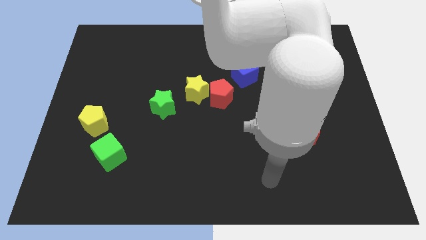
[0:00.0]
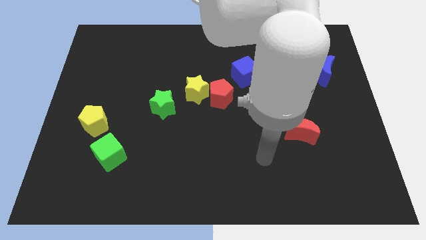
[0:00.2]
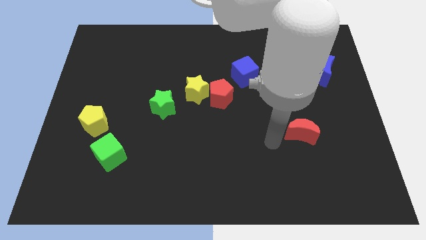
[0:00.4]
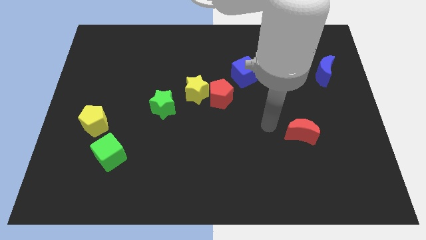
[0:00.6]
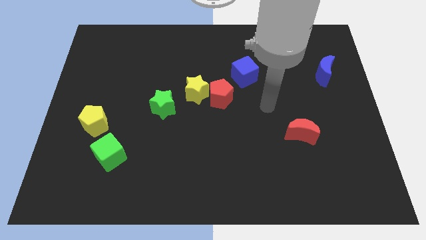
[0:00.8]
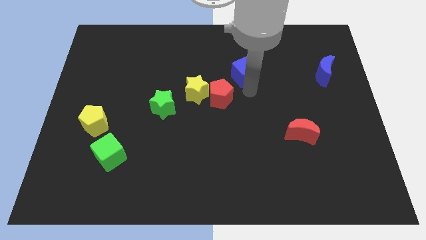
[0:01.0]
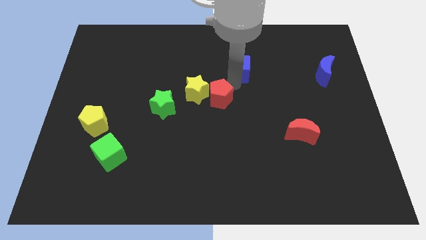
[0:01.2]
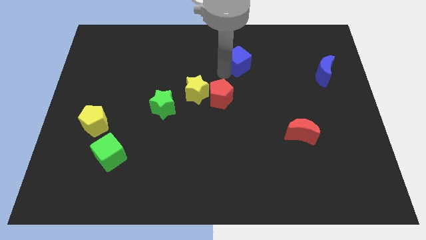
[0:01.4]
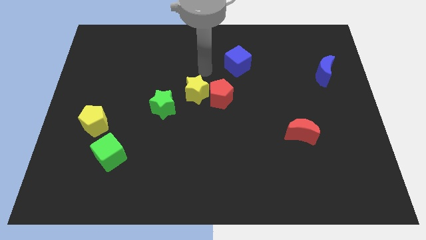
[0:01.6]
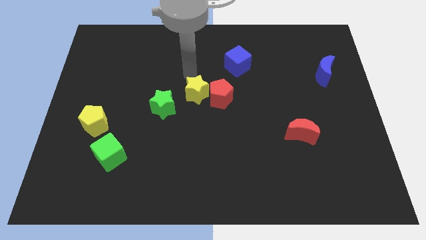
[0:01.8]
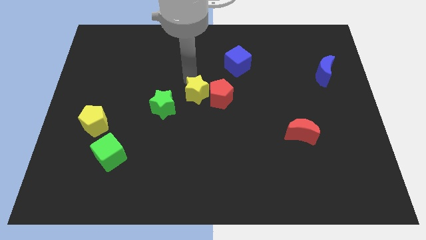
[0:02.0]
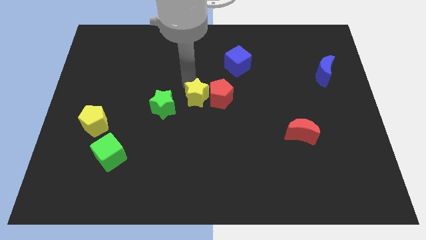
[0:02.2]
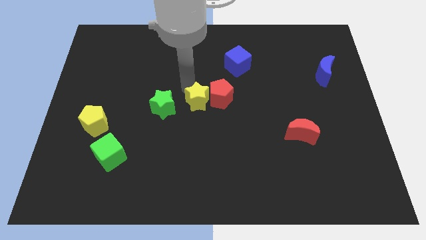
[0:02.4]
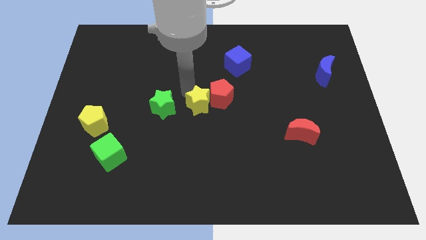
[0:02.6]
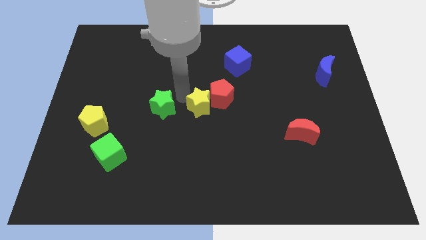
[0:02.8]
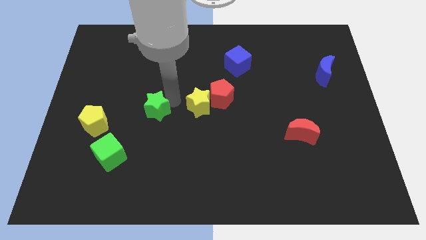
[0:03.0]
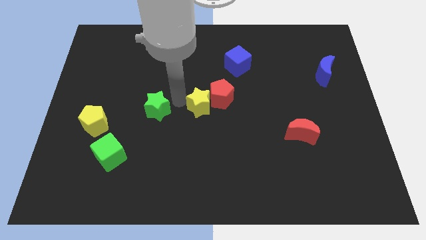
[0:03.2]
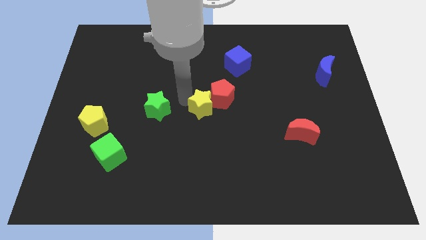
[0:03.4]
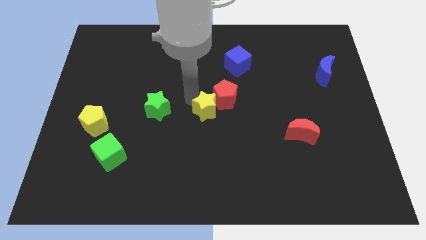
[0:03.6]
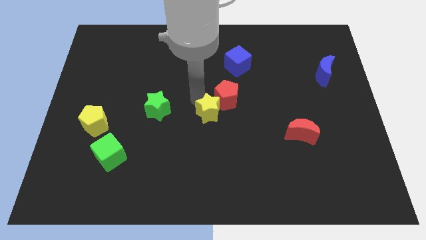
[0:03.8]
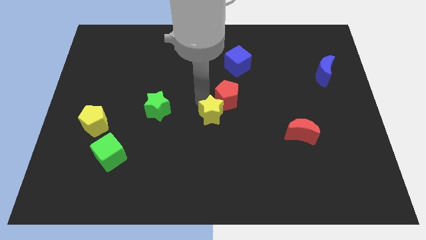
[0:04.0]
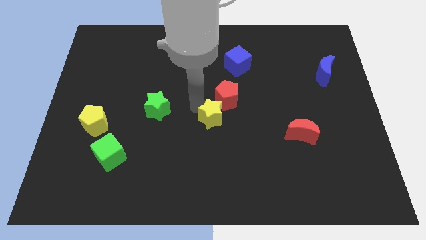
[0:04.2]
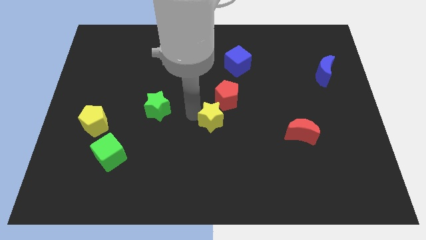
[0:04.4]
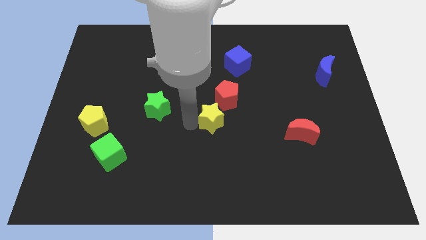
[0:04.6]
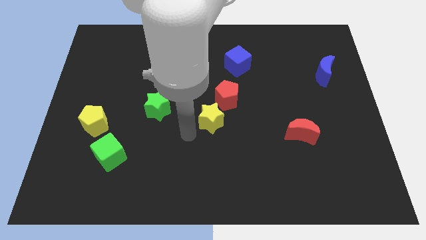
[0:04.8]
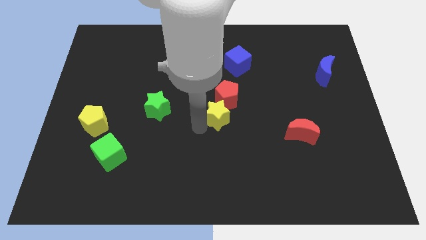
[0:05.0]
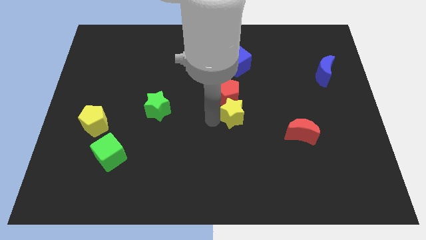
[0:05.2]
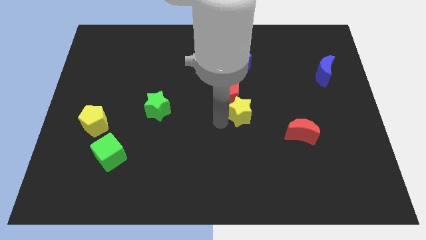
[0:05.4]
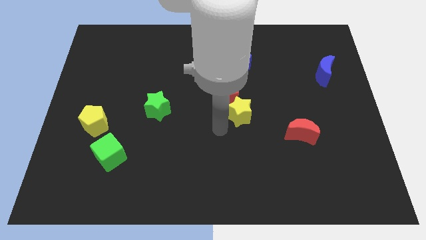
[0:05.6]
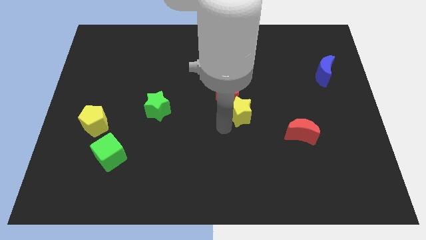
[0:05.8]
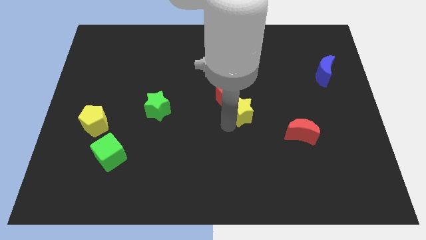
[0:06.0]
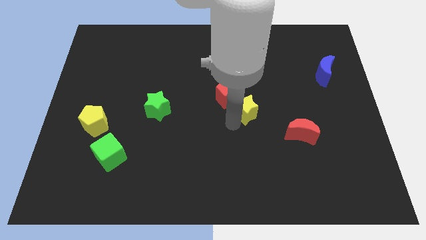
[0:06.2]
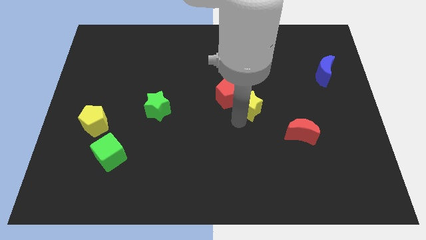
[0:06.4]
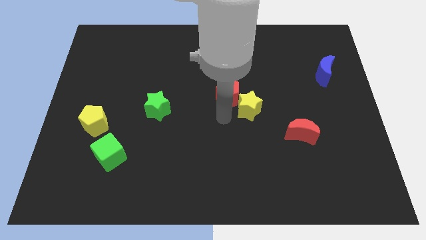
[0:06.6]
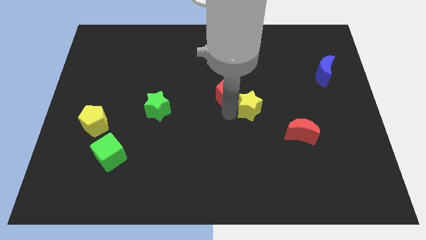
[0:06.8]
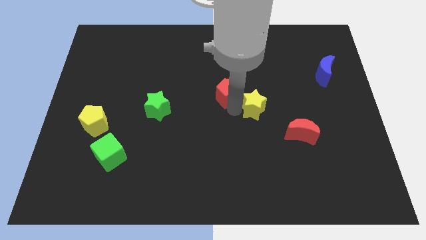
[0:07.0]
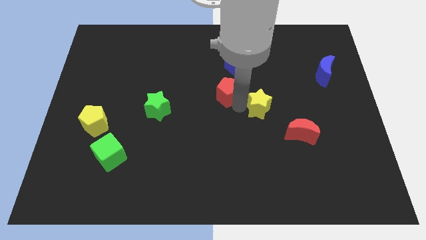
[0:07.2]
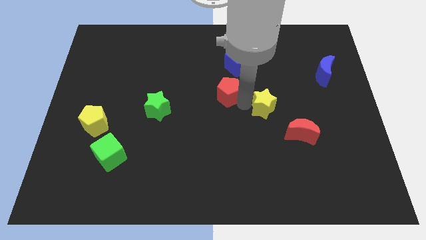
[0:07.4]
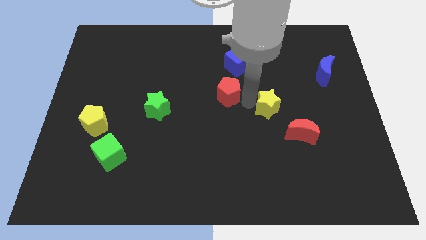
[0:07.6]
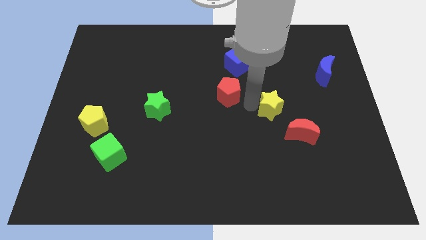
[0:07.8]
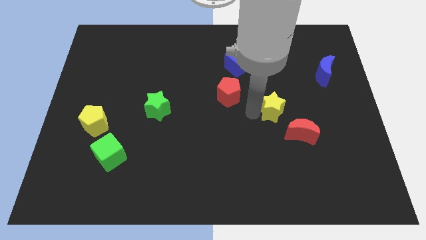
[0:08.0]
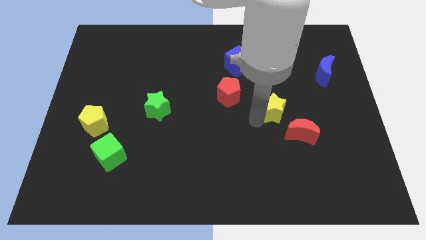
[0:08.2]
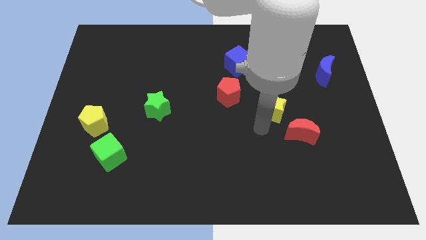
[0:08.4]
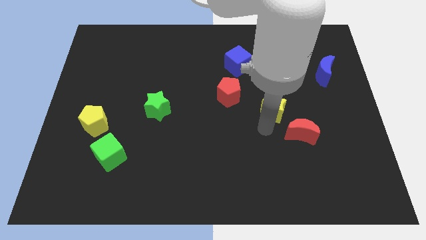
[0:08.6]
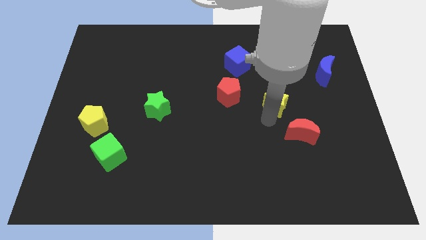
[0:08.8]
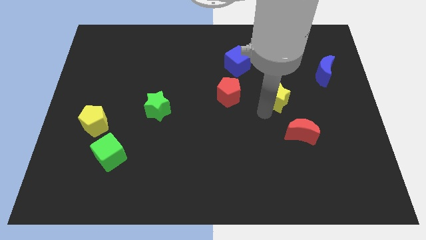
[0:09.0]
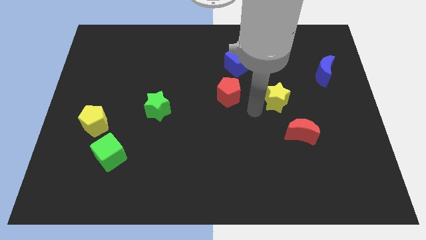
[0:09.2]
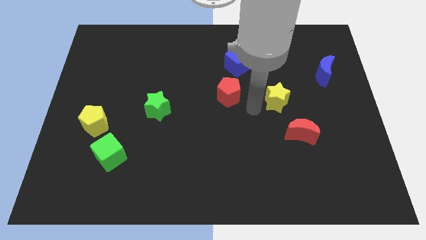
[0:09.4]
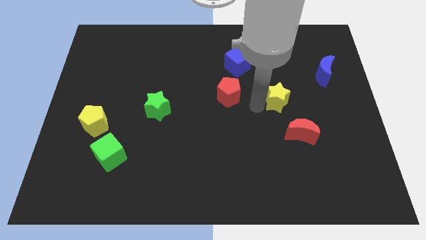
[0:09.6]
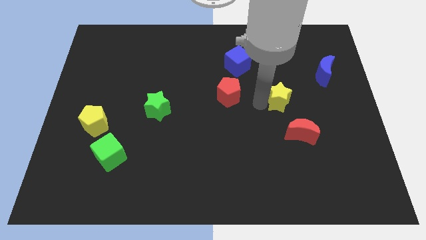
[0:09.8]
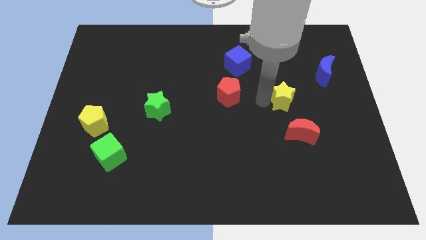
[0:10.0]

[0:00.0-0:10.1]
slide the yellow star right

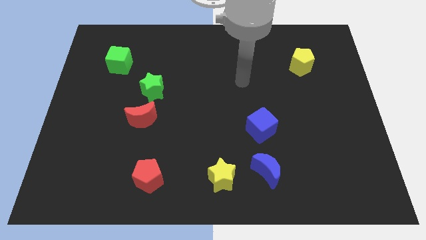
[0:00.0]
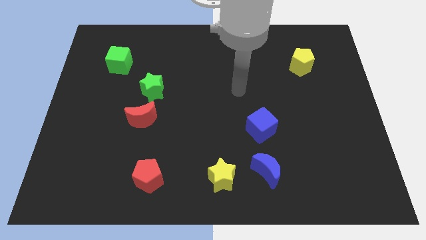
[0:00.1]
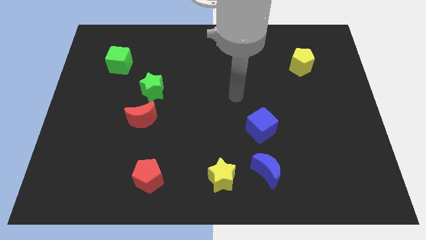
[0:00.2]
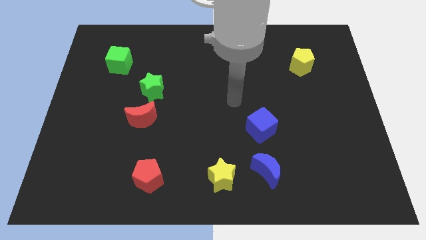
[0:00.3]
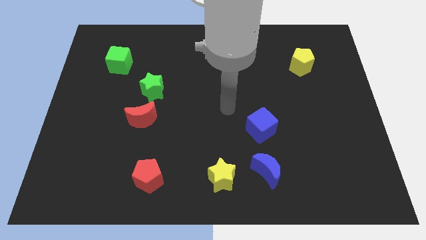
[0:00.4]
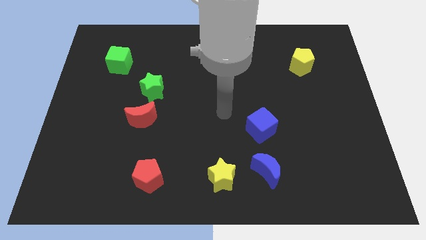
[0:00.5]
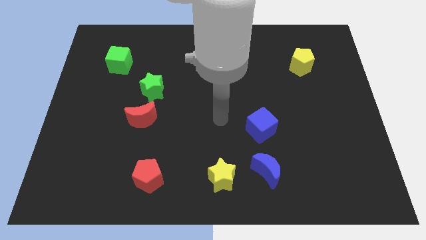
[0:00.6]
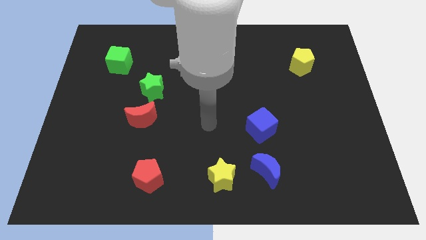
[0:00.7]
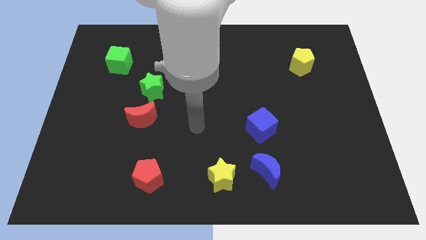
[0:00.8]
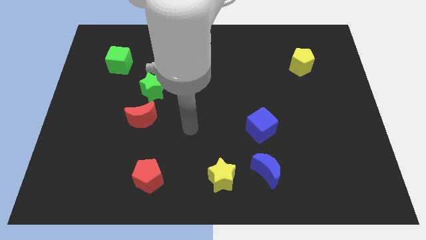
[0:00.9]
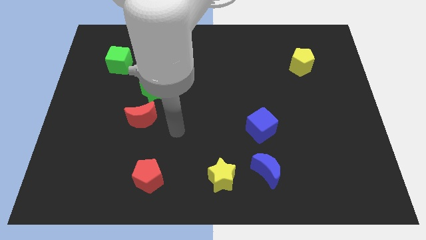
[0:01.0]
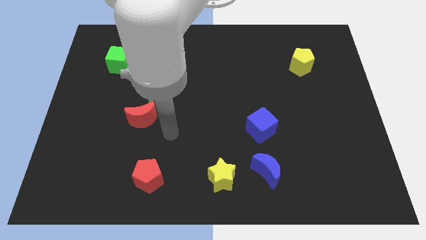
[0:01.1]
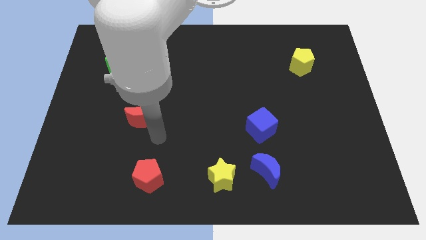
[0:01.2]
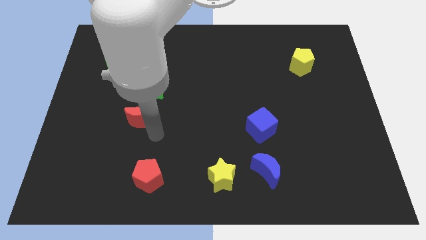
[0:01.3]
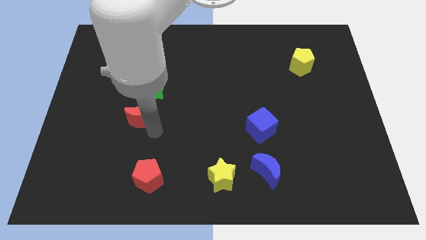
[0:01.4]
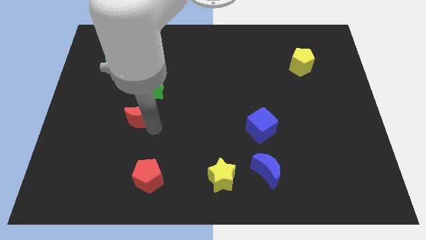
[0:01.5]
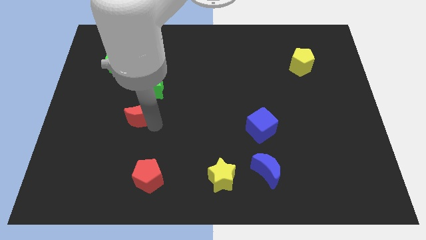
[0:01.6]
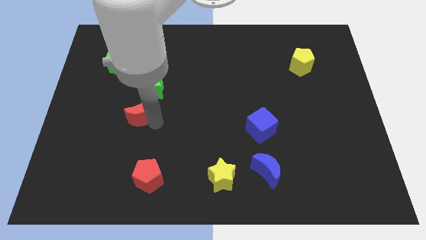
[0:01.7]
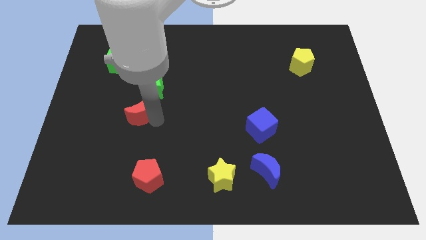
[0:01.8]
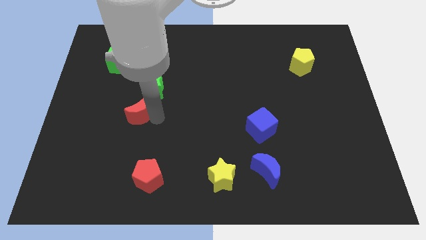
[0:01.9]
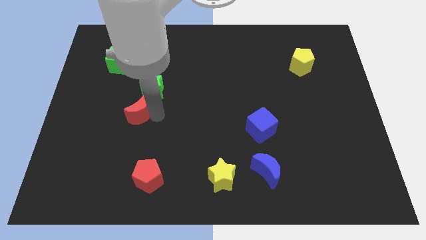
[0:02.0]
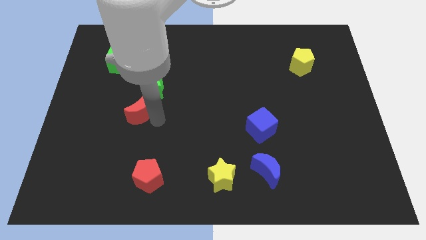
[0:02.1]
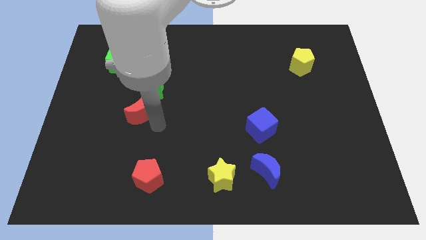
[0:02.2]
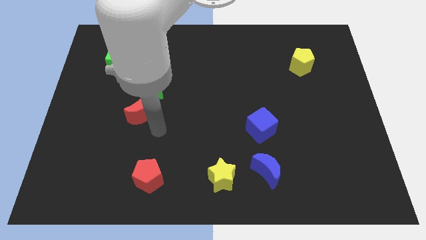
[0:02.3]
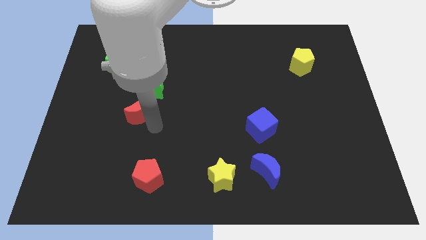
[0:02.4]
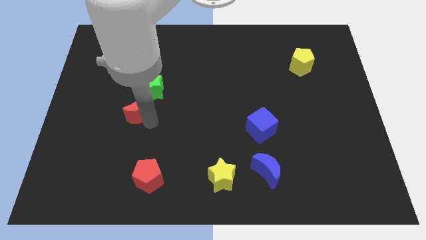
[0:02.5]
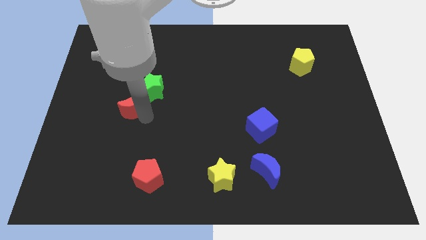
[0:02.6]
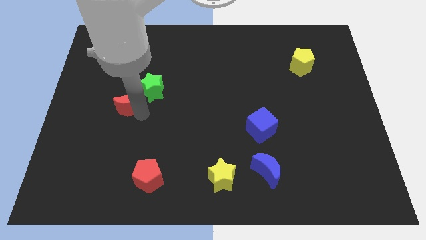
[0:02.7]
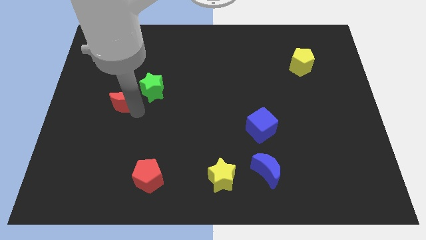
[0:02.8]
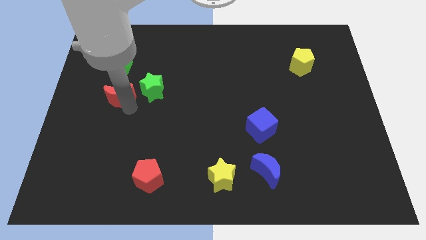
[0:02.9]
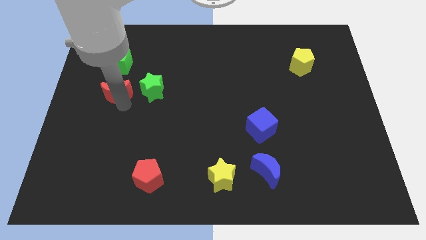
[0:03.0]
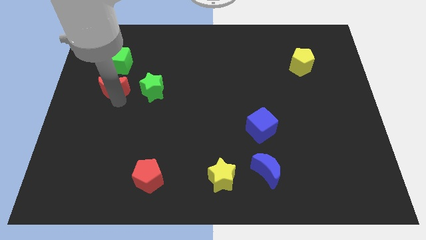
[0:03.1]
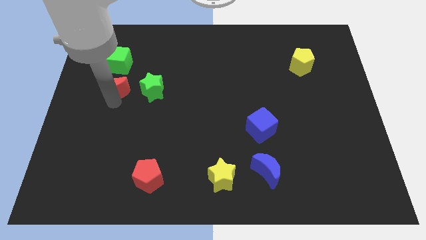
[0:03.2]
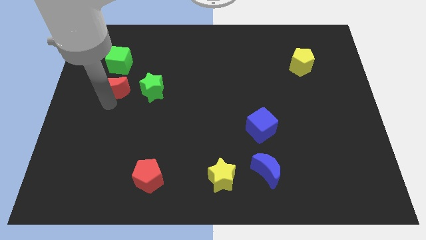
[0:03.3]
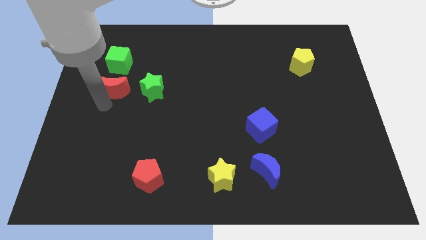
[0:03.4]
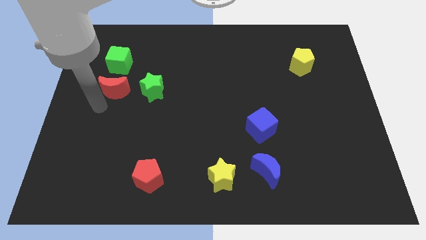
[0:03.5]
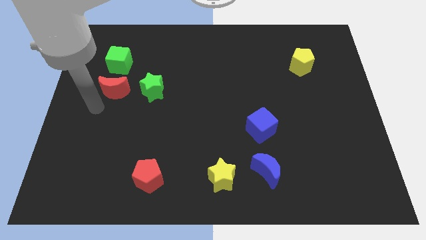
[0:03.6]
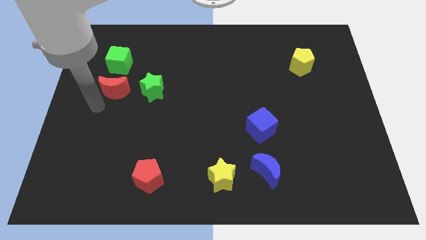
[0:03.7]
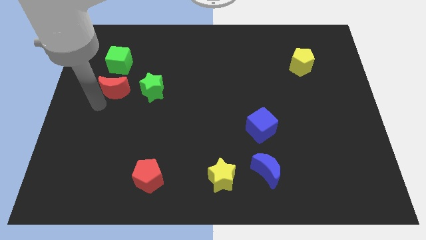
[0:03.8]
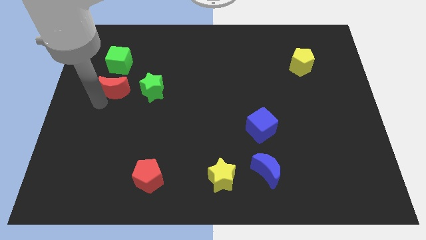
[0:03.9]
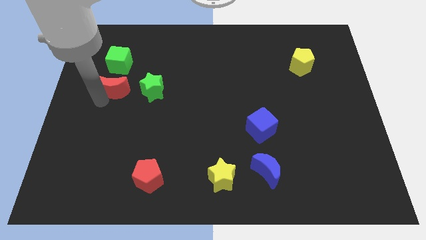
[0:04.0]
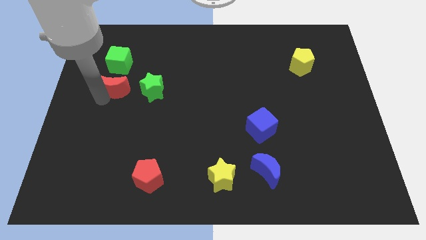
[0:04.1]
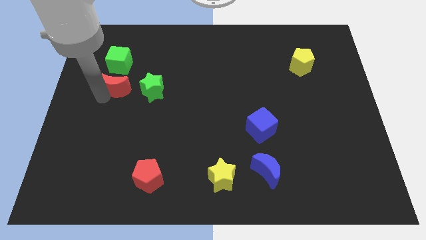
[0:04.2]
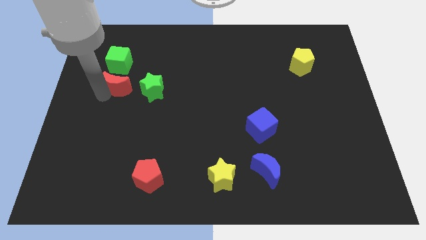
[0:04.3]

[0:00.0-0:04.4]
move the red moon a little up
